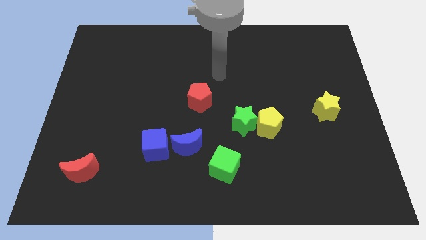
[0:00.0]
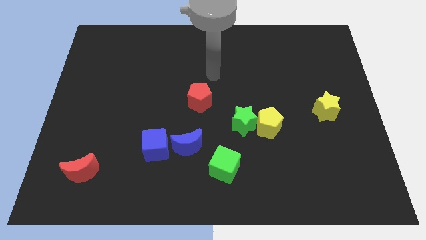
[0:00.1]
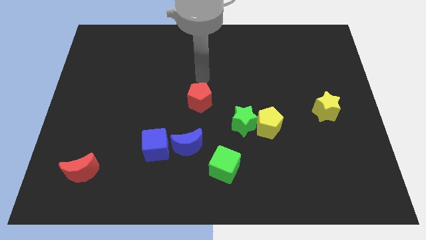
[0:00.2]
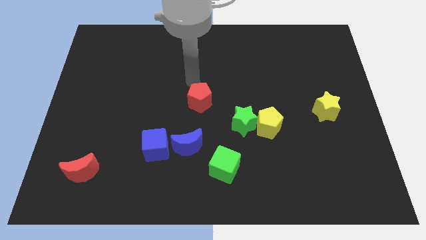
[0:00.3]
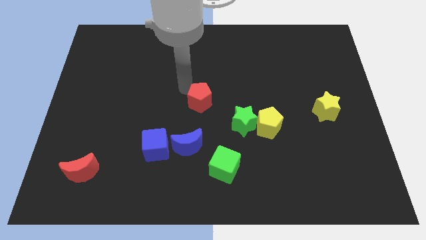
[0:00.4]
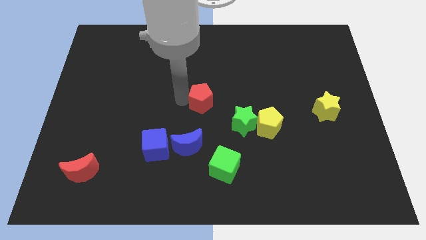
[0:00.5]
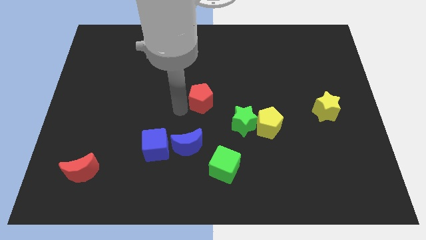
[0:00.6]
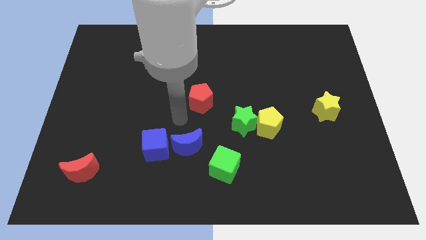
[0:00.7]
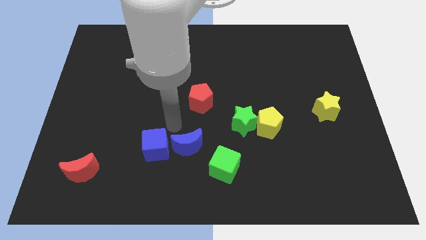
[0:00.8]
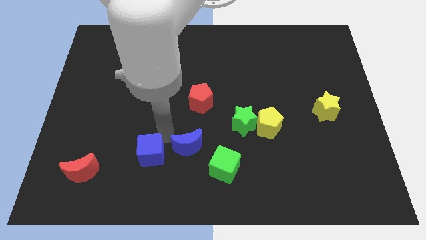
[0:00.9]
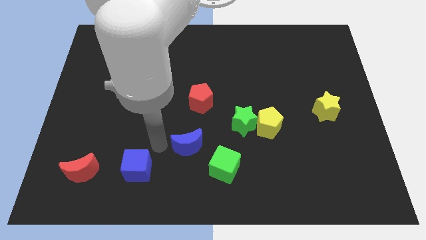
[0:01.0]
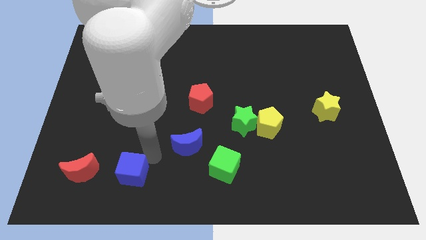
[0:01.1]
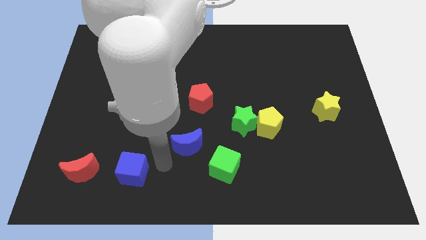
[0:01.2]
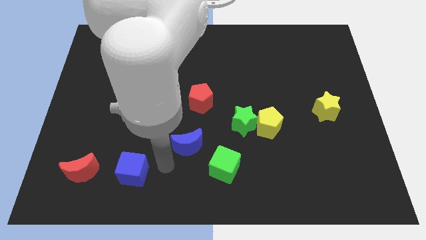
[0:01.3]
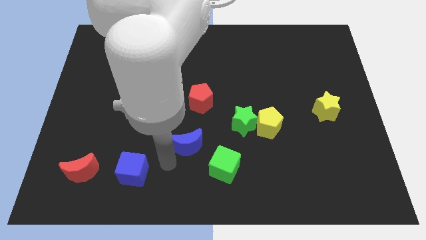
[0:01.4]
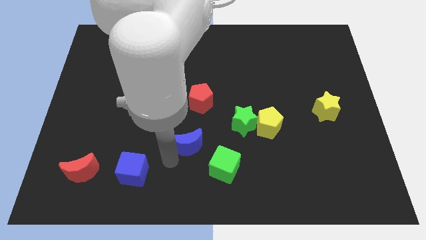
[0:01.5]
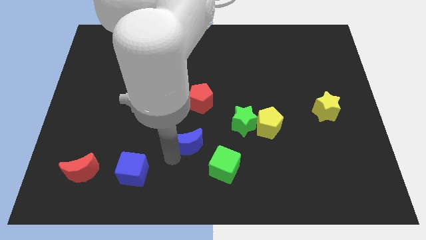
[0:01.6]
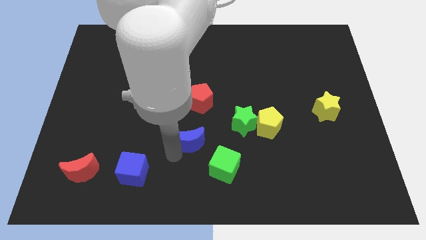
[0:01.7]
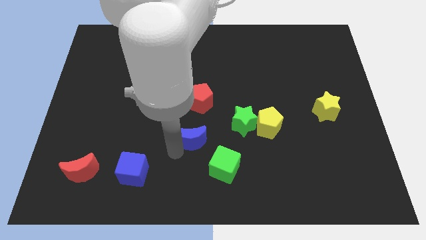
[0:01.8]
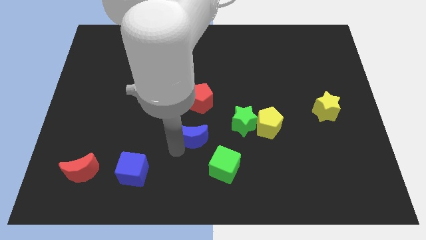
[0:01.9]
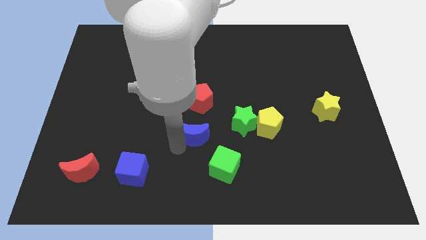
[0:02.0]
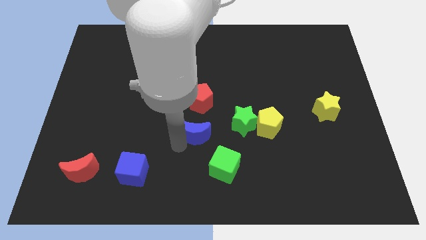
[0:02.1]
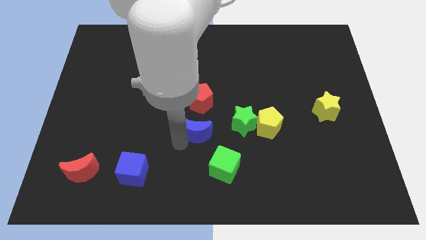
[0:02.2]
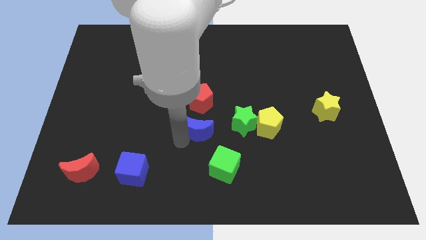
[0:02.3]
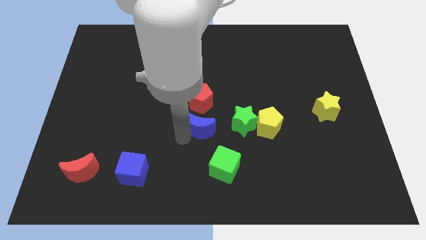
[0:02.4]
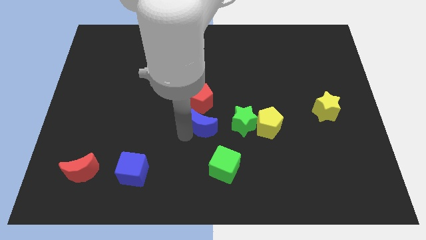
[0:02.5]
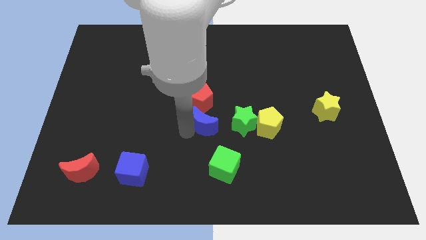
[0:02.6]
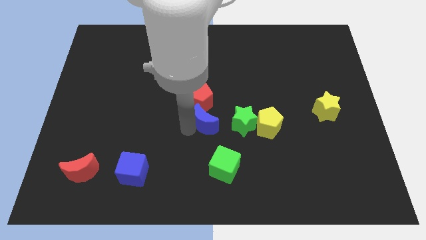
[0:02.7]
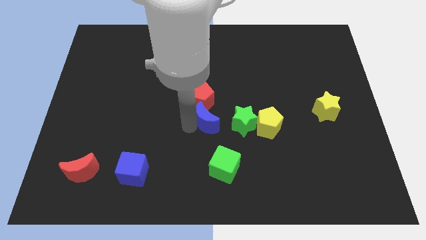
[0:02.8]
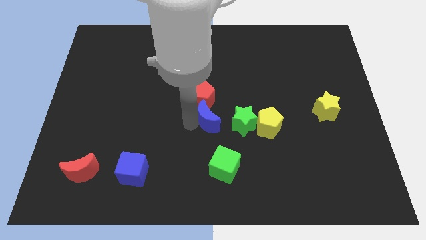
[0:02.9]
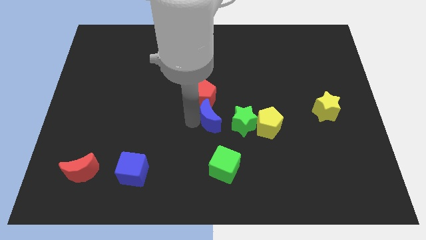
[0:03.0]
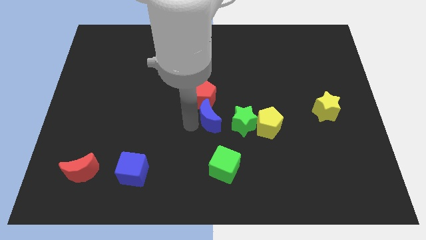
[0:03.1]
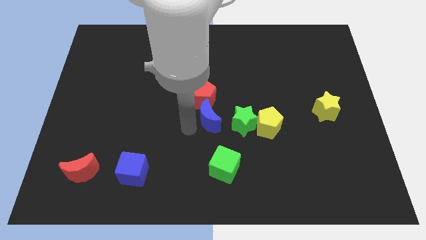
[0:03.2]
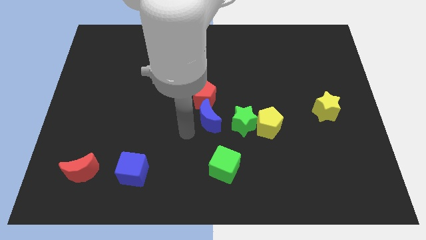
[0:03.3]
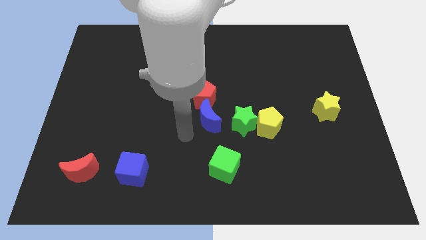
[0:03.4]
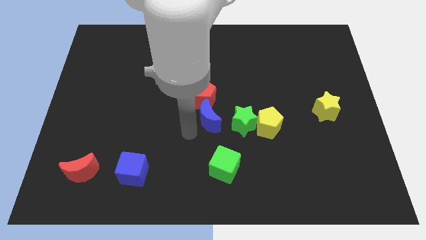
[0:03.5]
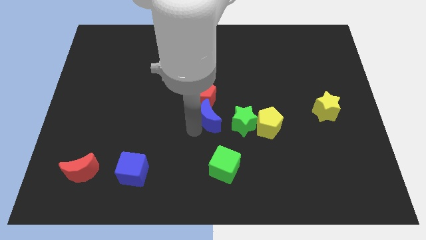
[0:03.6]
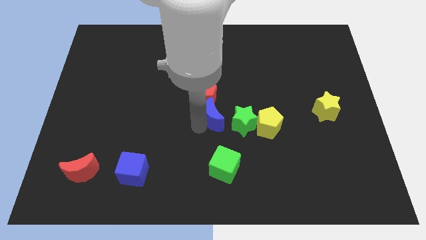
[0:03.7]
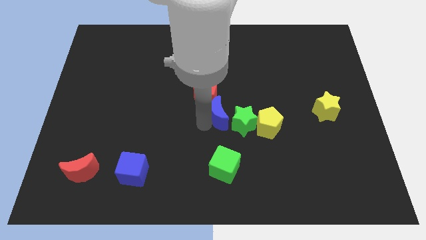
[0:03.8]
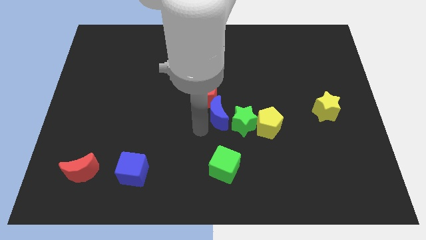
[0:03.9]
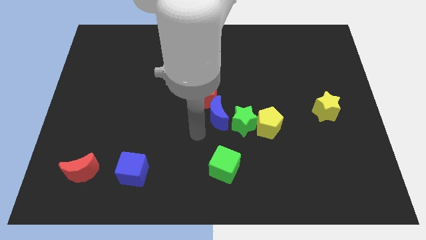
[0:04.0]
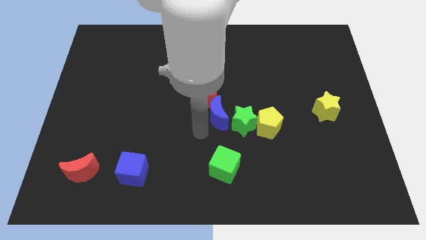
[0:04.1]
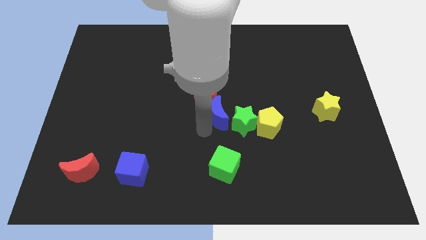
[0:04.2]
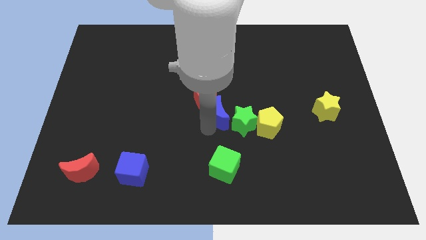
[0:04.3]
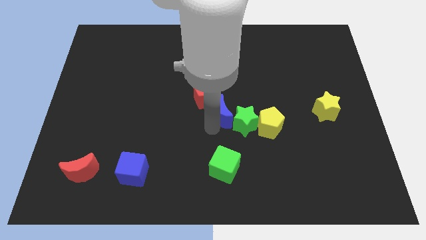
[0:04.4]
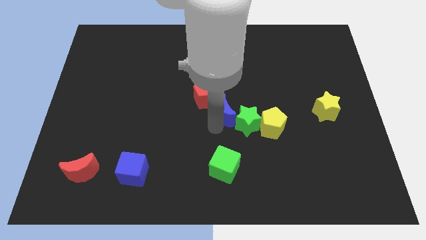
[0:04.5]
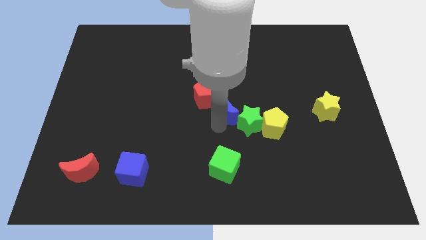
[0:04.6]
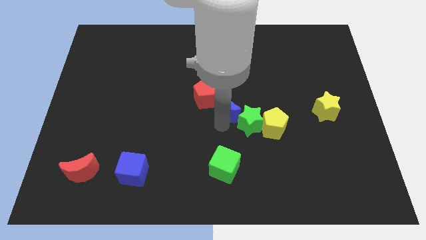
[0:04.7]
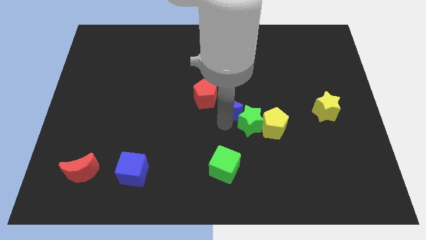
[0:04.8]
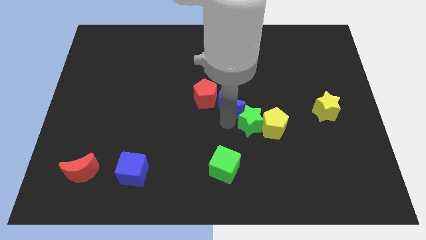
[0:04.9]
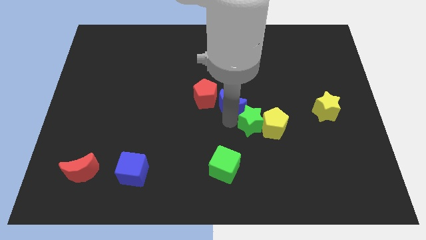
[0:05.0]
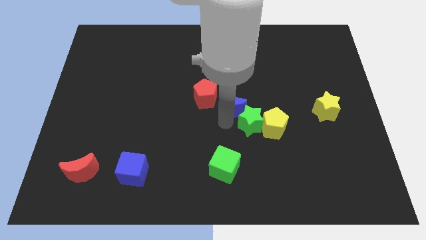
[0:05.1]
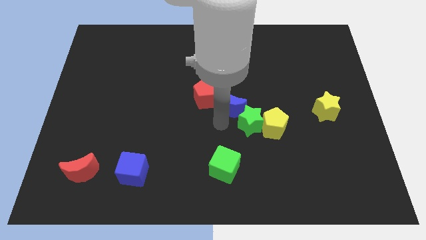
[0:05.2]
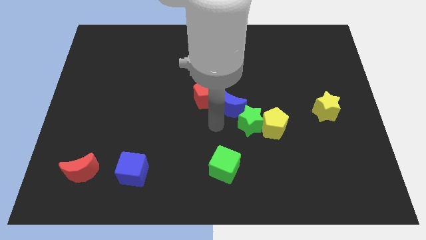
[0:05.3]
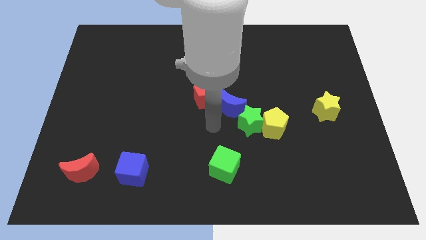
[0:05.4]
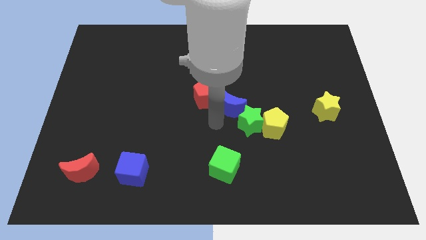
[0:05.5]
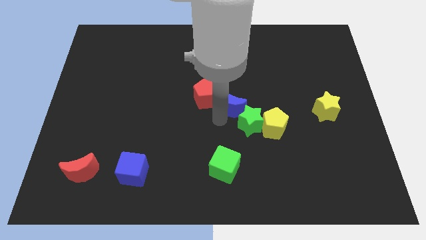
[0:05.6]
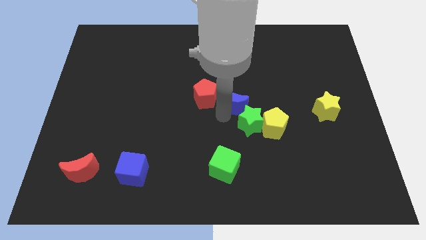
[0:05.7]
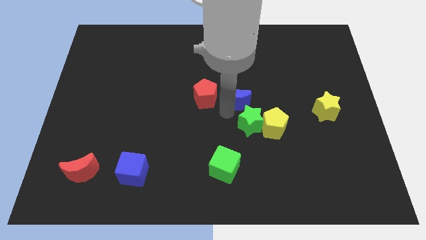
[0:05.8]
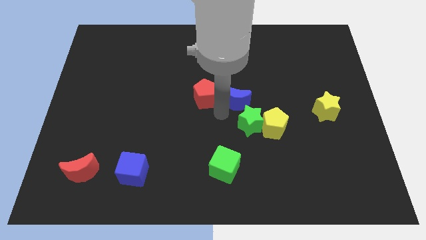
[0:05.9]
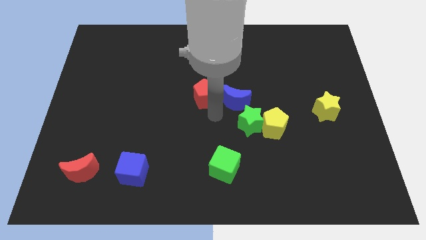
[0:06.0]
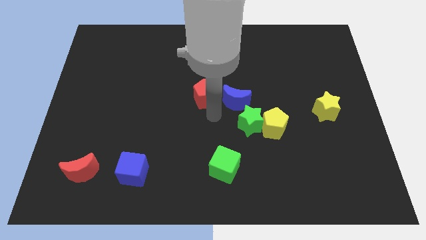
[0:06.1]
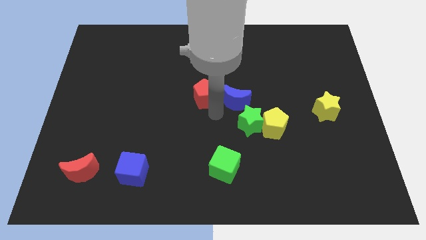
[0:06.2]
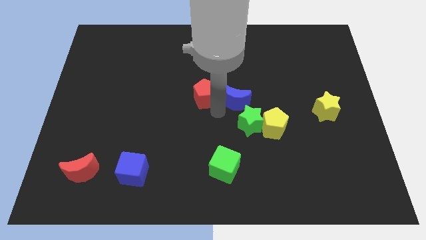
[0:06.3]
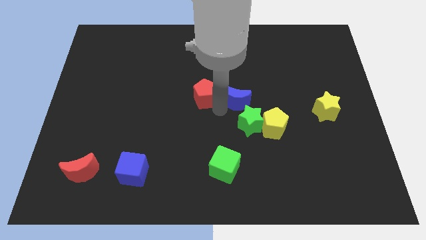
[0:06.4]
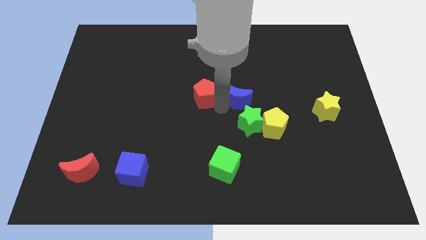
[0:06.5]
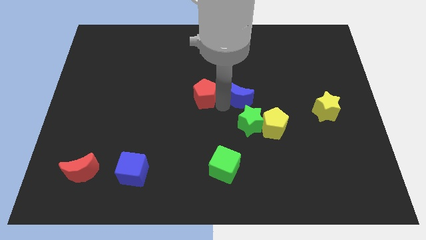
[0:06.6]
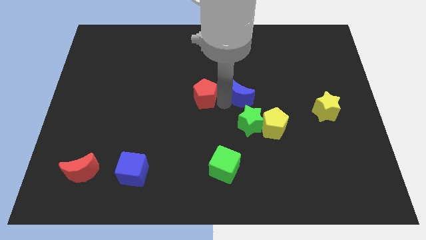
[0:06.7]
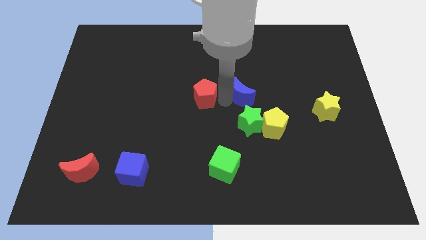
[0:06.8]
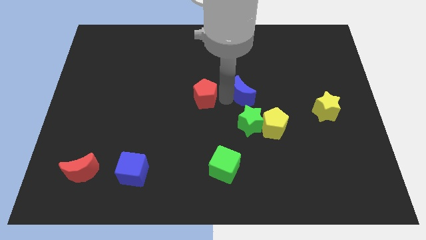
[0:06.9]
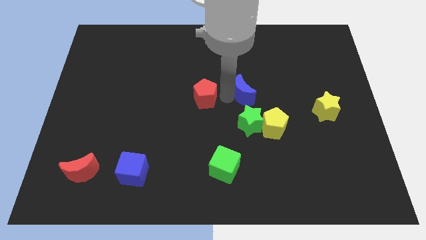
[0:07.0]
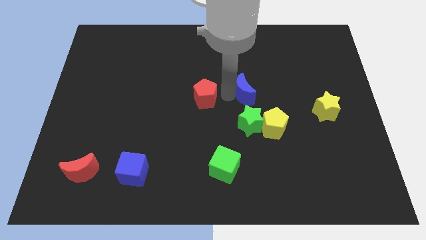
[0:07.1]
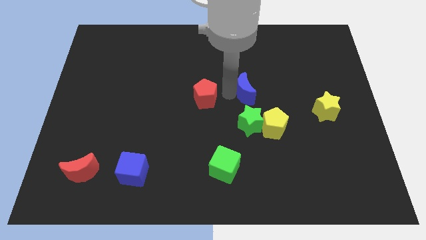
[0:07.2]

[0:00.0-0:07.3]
move the blue moon up and then right

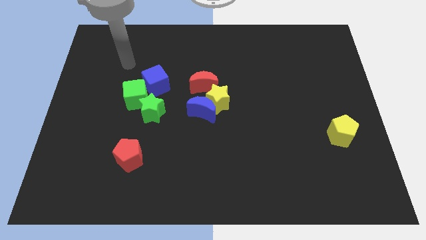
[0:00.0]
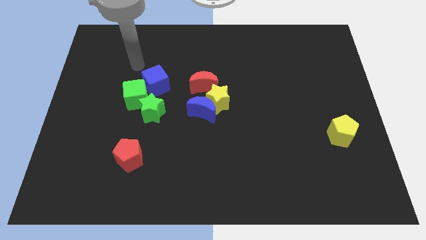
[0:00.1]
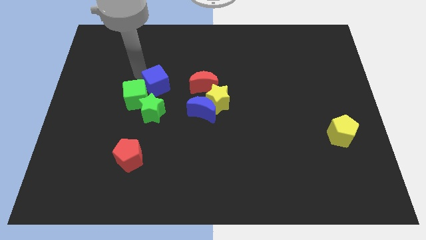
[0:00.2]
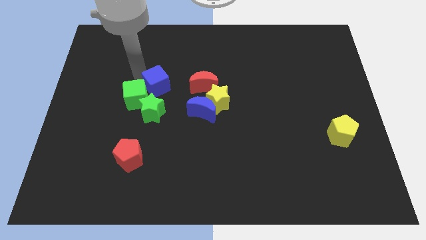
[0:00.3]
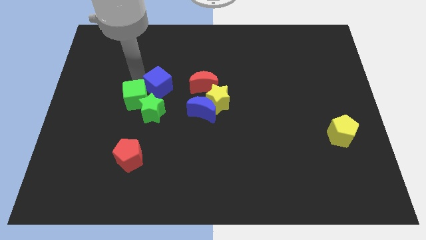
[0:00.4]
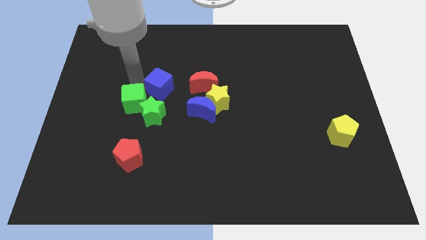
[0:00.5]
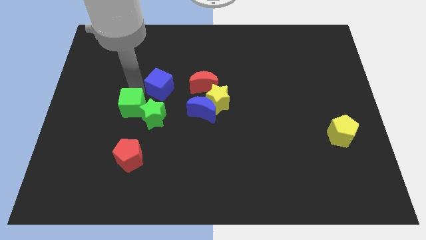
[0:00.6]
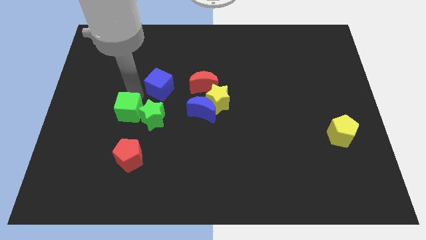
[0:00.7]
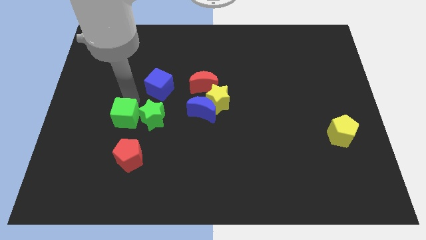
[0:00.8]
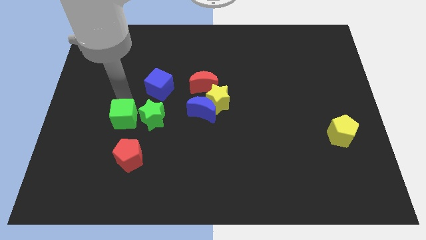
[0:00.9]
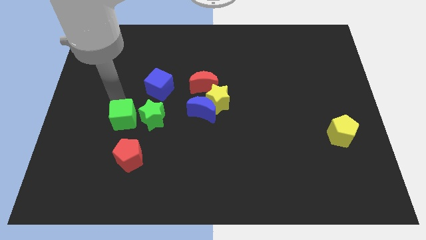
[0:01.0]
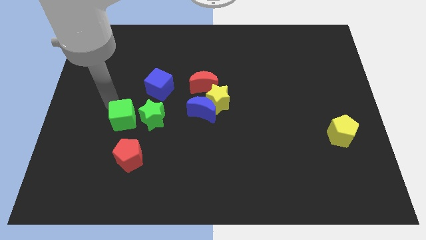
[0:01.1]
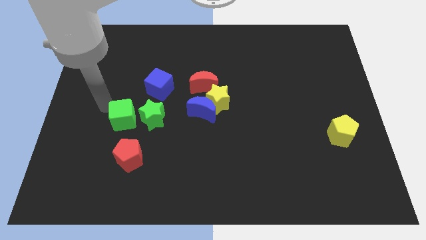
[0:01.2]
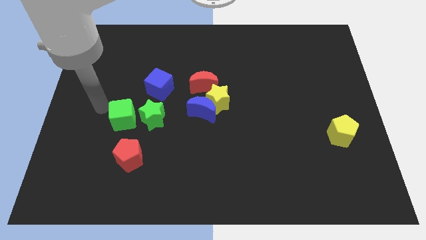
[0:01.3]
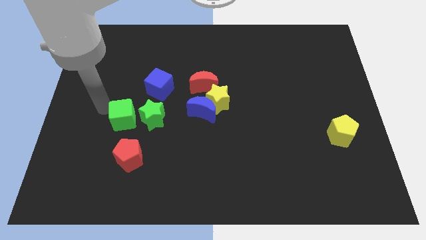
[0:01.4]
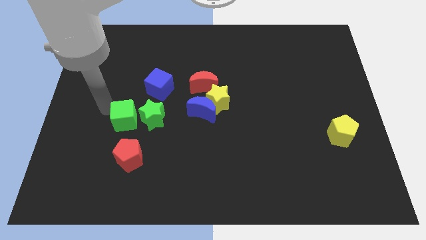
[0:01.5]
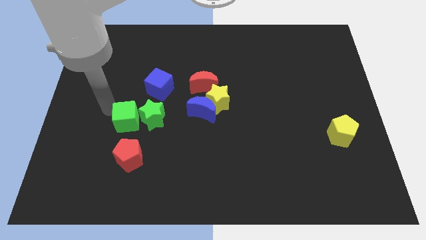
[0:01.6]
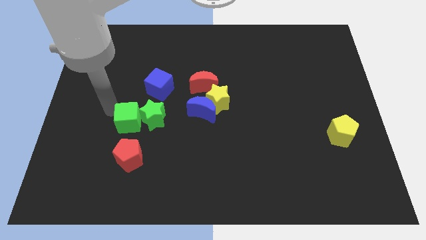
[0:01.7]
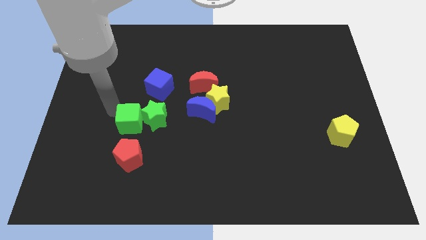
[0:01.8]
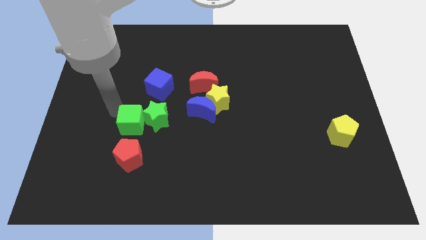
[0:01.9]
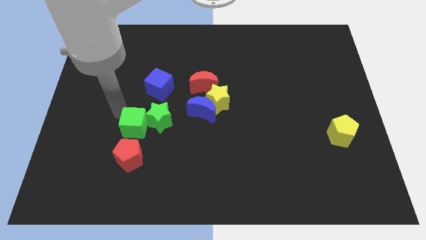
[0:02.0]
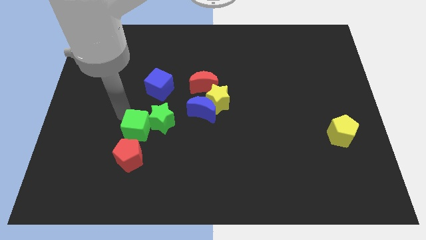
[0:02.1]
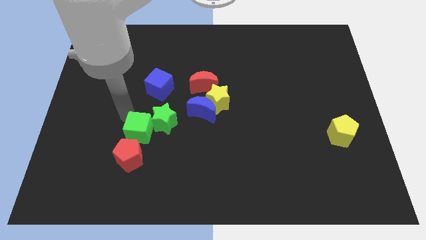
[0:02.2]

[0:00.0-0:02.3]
push the green cube slightly diagonally downwards and right
